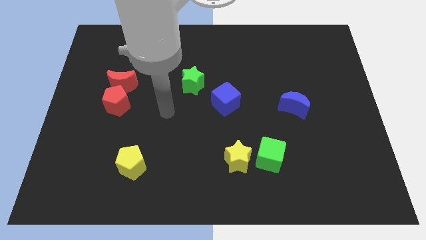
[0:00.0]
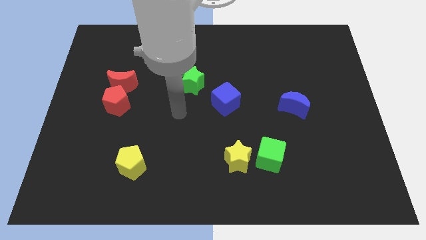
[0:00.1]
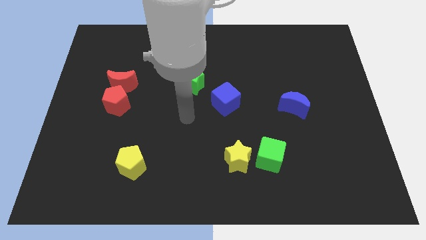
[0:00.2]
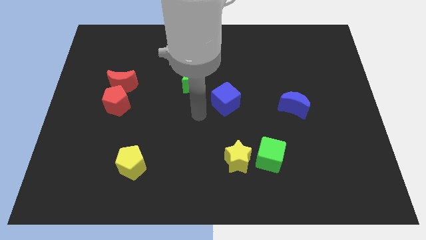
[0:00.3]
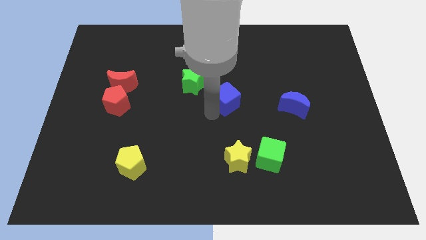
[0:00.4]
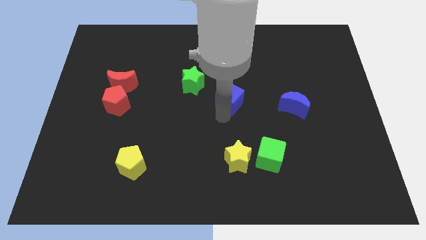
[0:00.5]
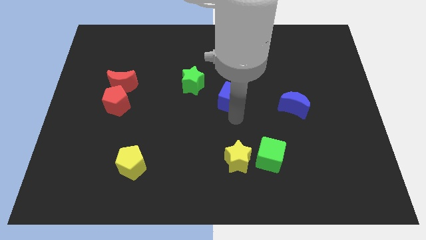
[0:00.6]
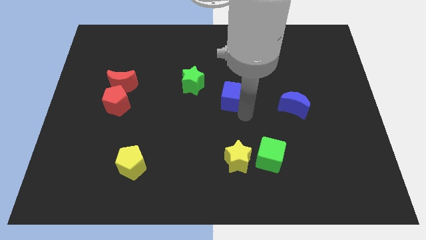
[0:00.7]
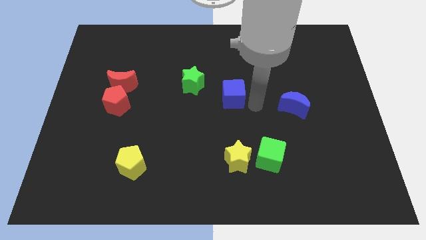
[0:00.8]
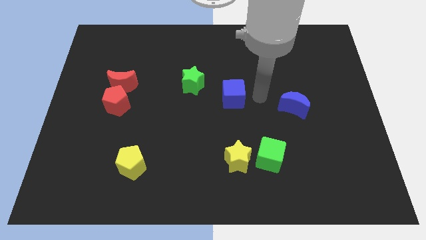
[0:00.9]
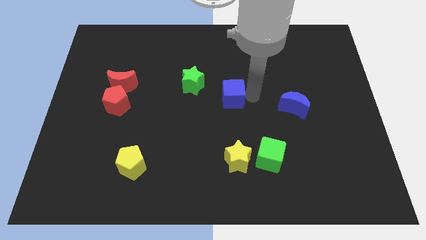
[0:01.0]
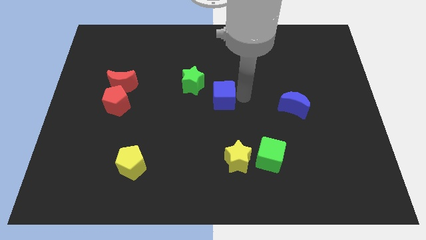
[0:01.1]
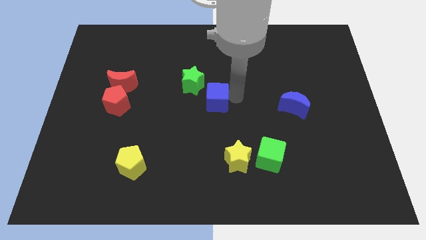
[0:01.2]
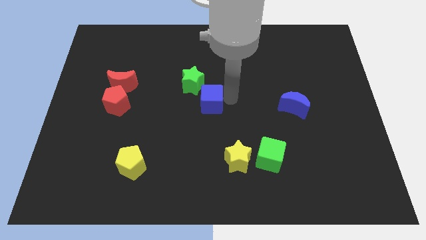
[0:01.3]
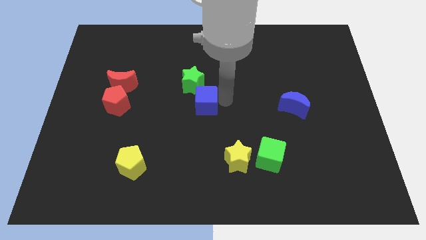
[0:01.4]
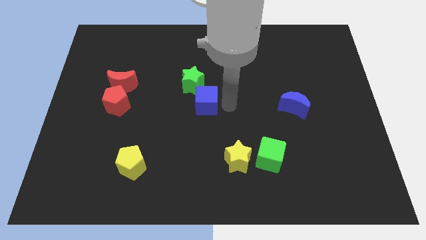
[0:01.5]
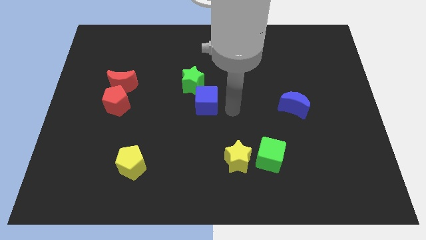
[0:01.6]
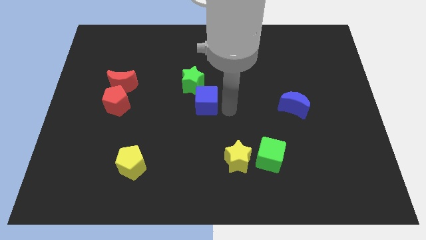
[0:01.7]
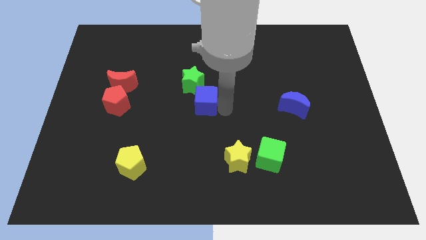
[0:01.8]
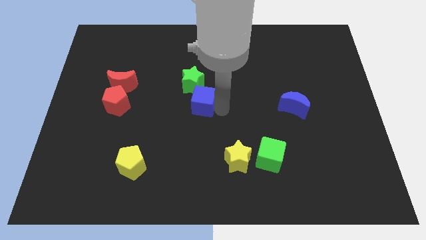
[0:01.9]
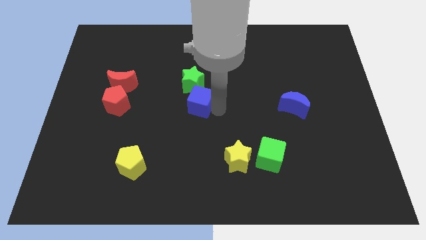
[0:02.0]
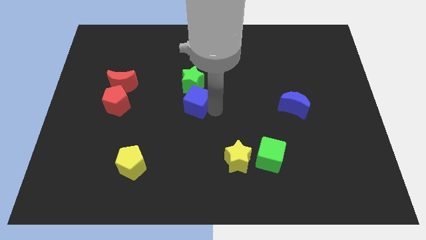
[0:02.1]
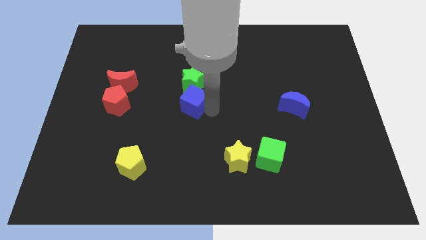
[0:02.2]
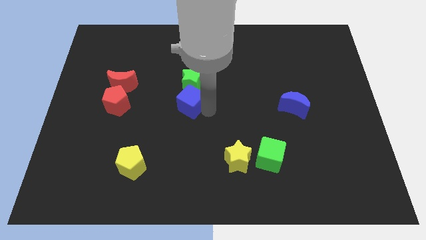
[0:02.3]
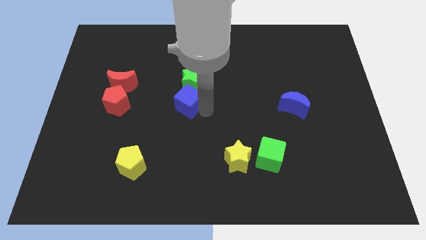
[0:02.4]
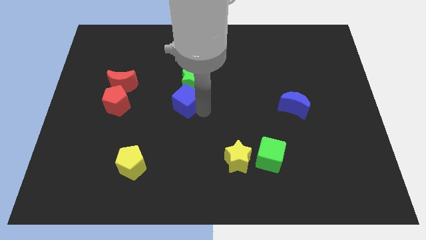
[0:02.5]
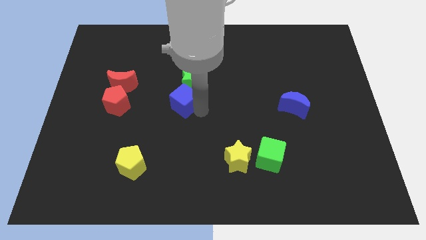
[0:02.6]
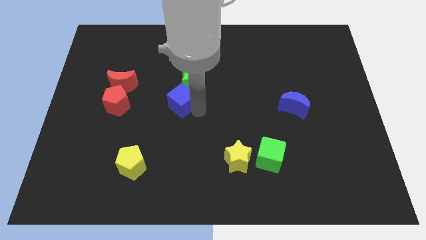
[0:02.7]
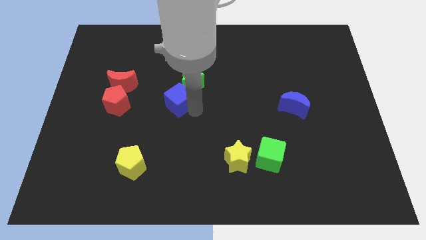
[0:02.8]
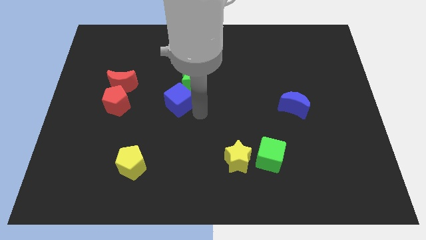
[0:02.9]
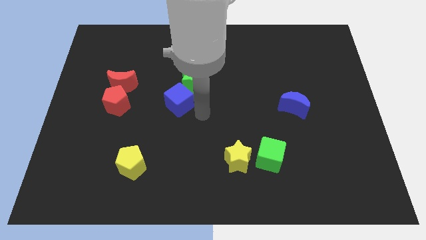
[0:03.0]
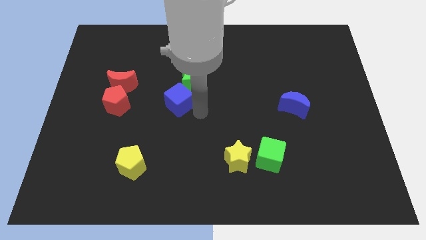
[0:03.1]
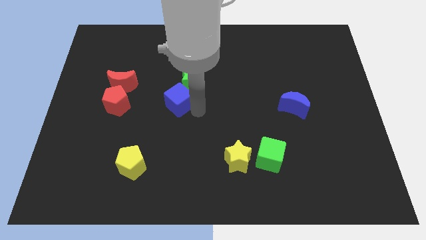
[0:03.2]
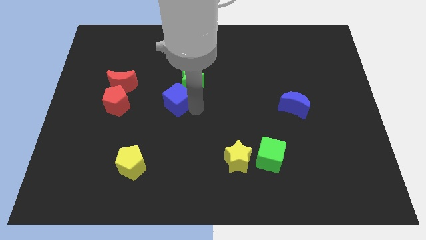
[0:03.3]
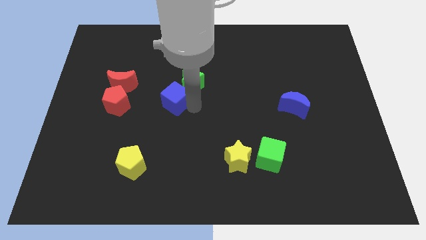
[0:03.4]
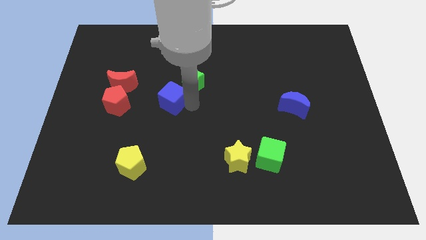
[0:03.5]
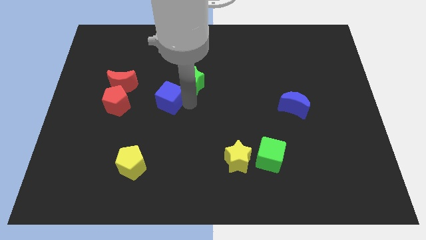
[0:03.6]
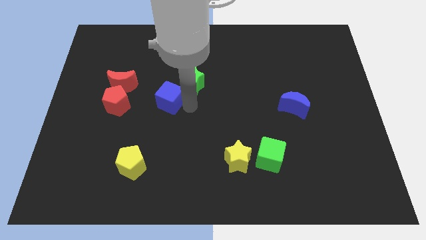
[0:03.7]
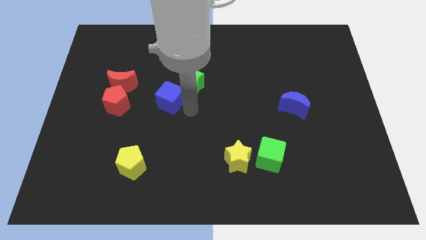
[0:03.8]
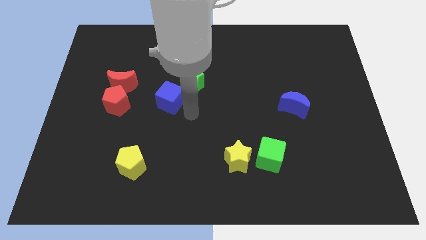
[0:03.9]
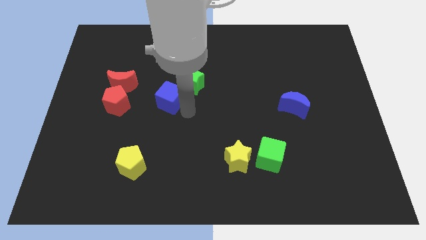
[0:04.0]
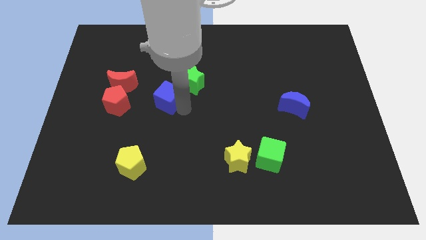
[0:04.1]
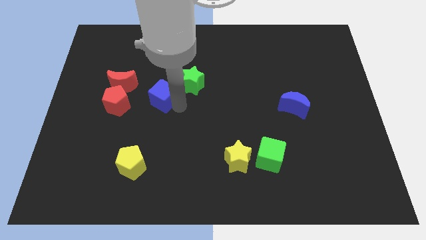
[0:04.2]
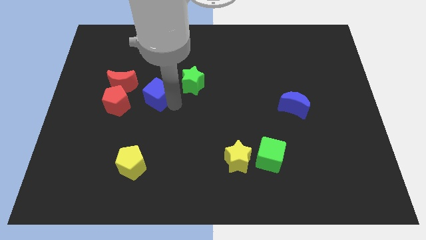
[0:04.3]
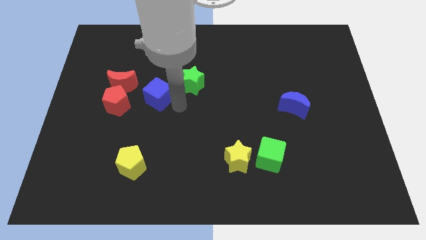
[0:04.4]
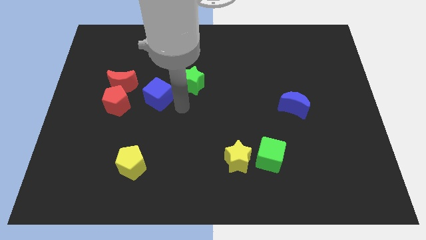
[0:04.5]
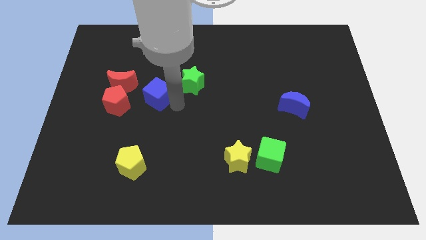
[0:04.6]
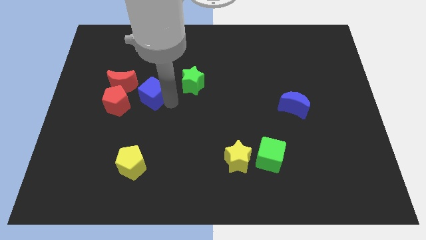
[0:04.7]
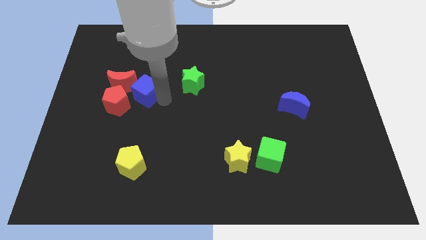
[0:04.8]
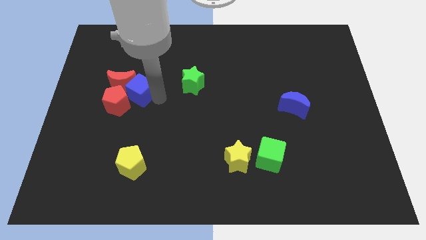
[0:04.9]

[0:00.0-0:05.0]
push the blue cube towards the red moon

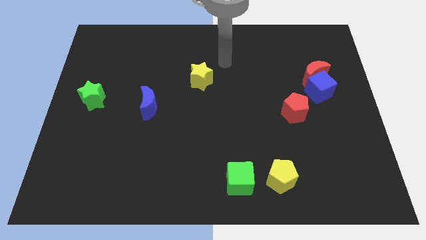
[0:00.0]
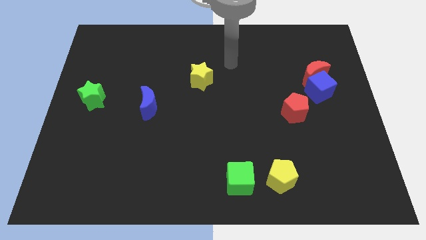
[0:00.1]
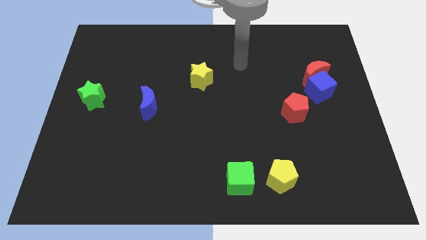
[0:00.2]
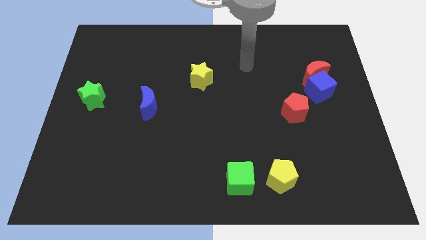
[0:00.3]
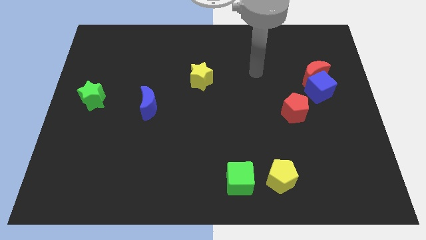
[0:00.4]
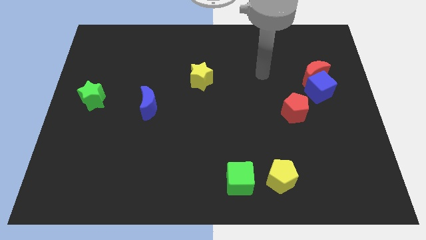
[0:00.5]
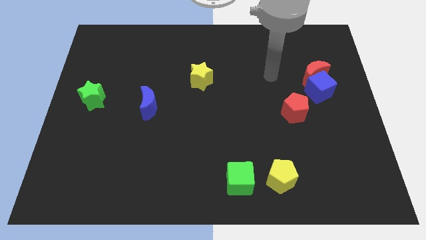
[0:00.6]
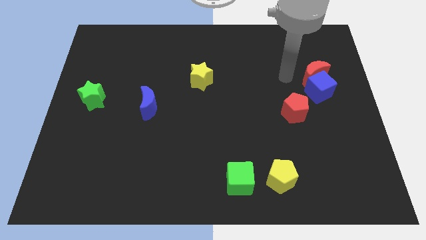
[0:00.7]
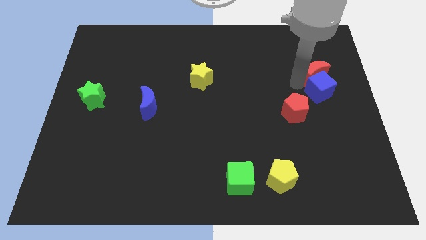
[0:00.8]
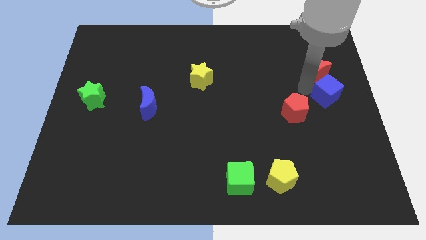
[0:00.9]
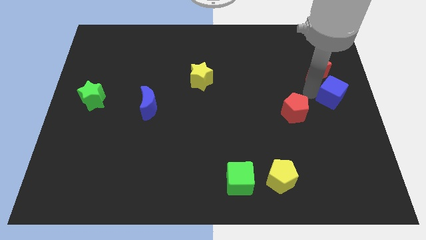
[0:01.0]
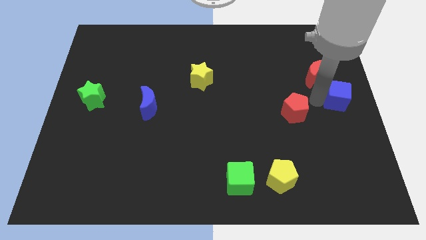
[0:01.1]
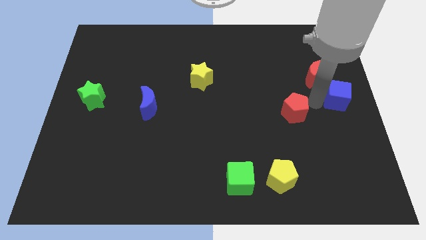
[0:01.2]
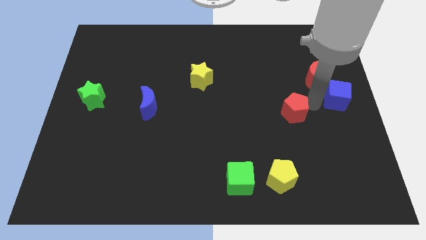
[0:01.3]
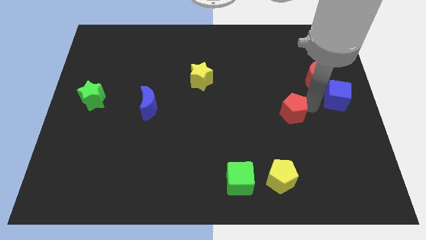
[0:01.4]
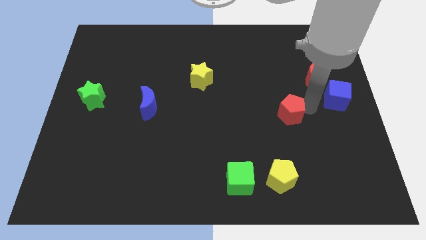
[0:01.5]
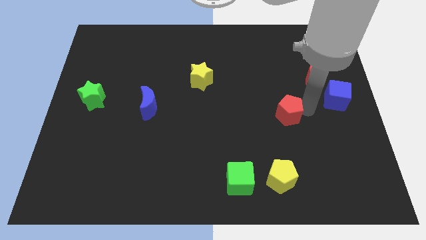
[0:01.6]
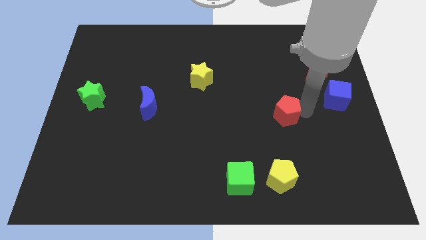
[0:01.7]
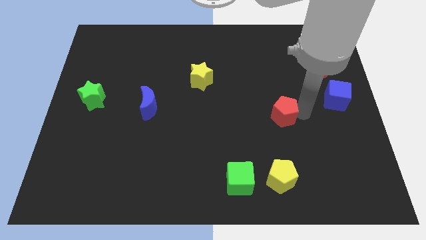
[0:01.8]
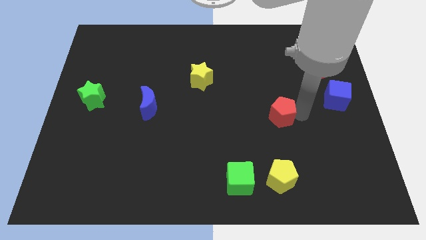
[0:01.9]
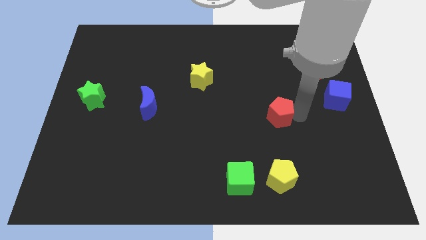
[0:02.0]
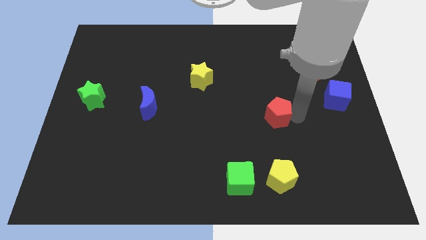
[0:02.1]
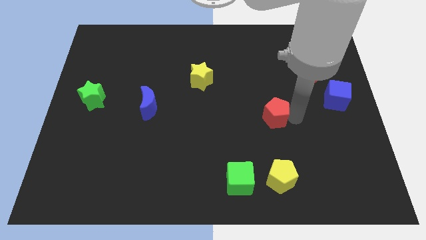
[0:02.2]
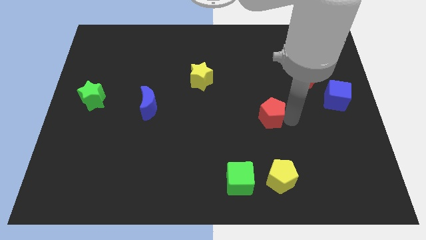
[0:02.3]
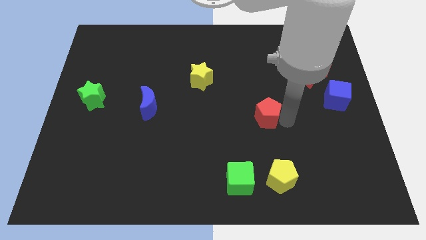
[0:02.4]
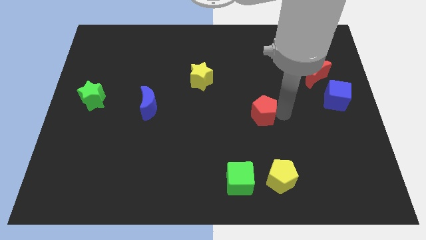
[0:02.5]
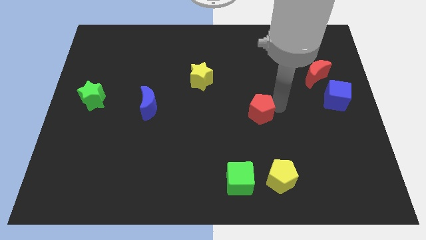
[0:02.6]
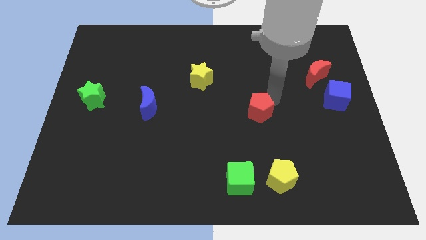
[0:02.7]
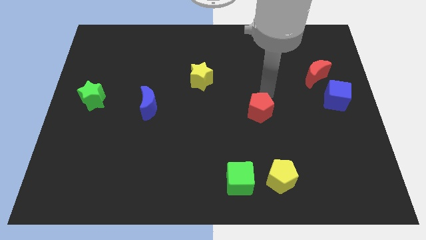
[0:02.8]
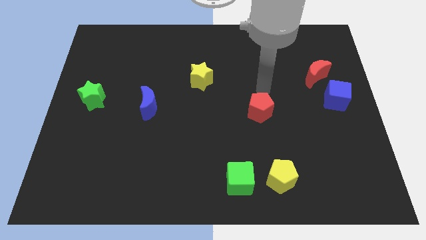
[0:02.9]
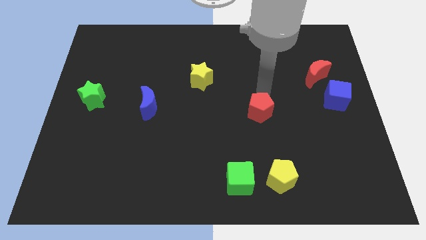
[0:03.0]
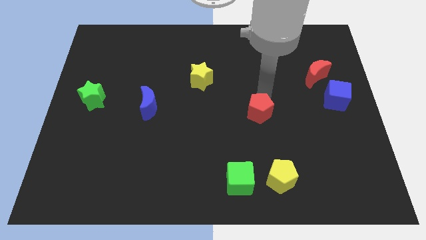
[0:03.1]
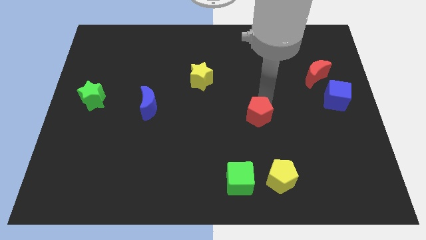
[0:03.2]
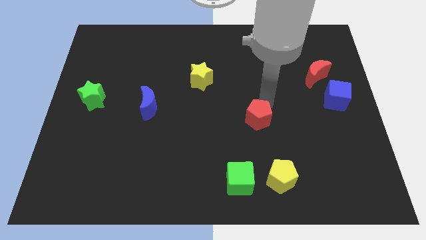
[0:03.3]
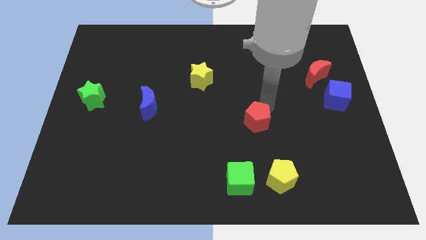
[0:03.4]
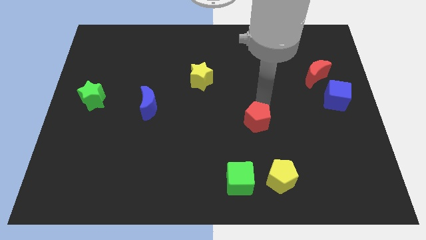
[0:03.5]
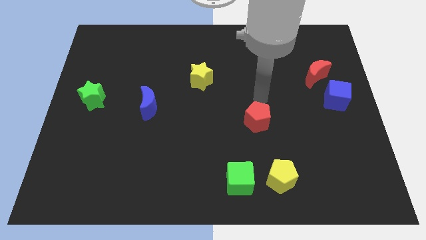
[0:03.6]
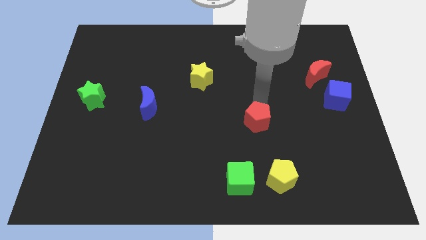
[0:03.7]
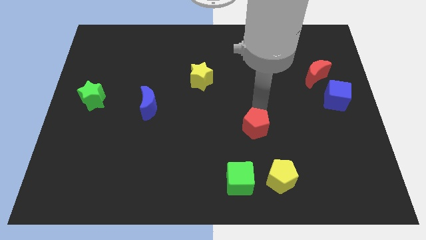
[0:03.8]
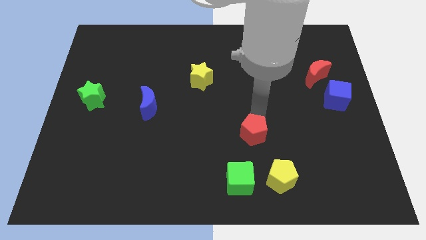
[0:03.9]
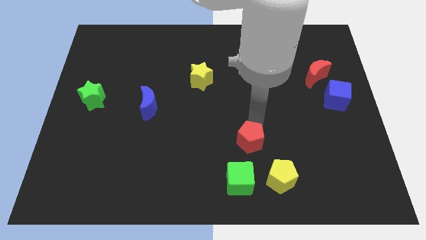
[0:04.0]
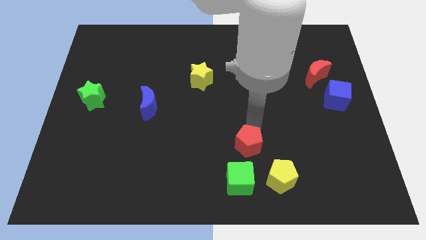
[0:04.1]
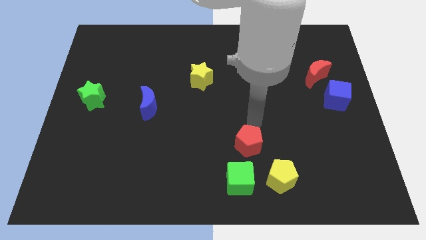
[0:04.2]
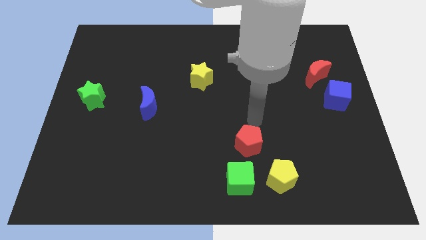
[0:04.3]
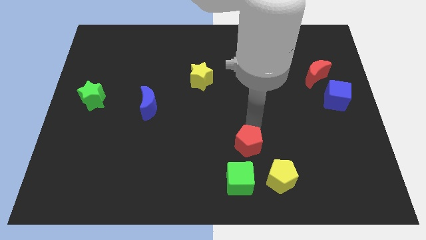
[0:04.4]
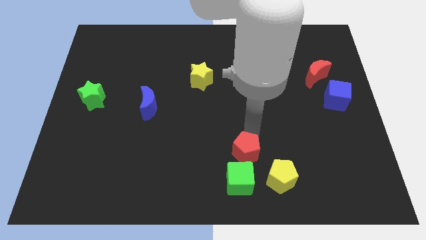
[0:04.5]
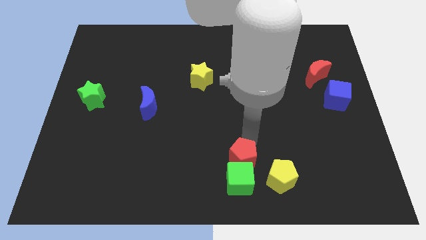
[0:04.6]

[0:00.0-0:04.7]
push the red pentagon towards the green cube
